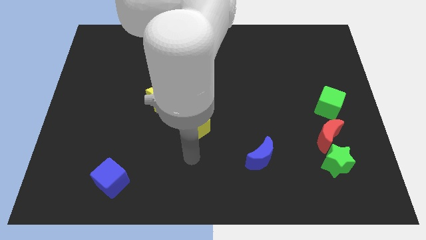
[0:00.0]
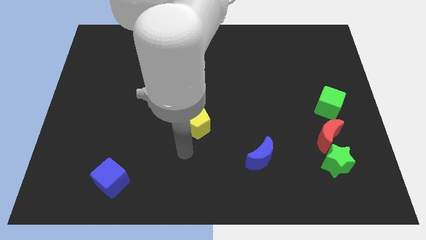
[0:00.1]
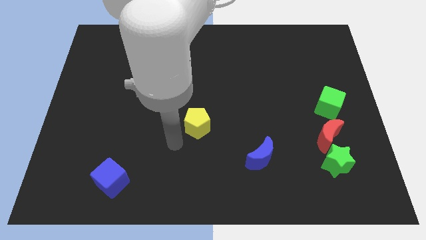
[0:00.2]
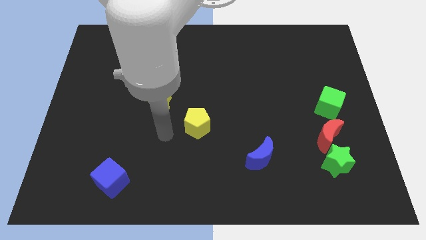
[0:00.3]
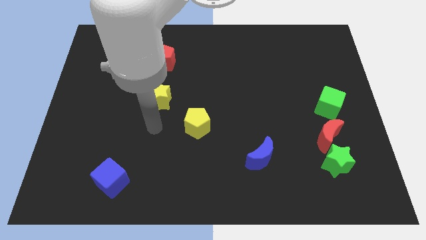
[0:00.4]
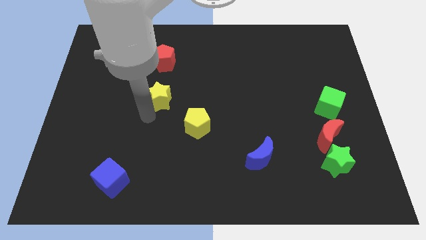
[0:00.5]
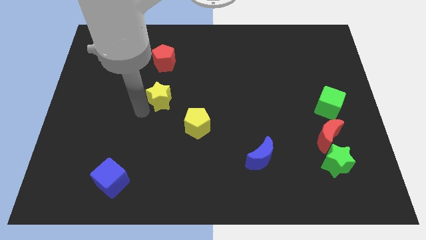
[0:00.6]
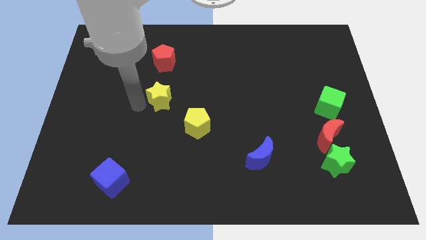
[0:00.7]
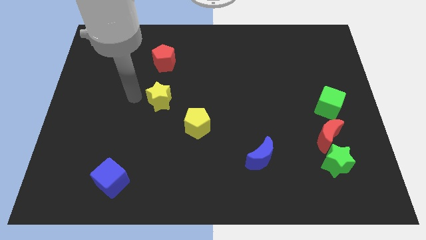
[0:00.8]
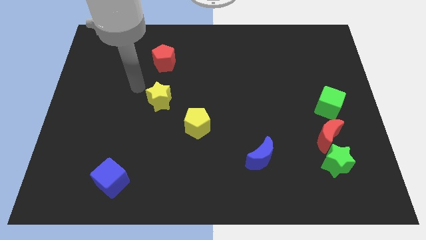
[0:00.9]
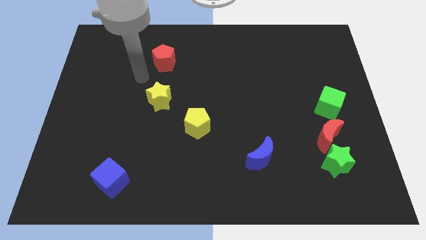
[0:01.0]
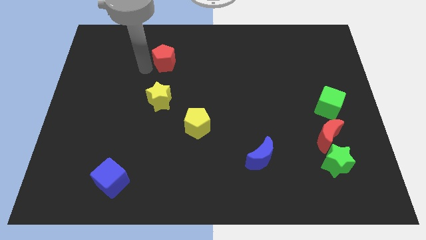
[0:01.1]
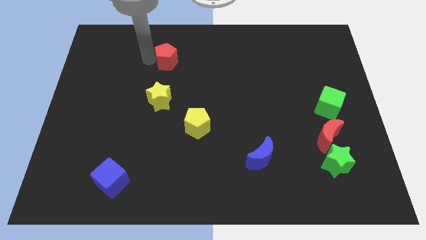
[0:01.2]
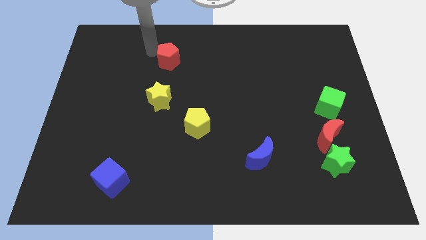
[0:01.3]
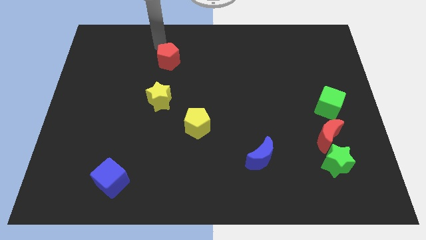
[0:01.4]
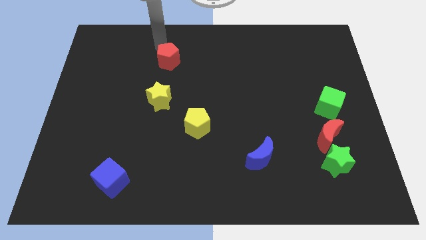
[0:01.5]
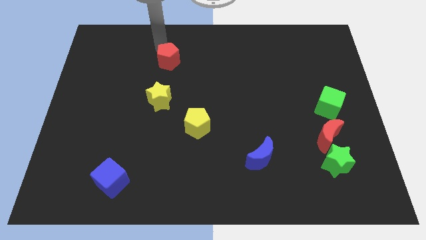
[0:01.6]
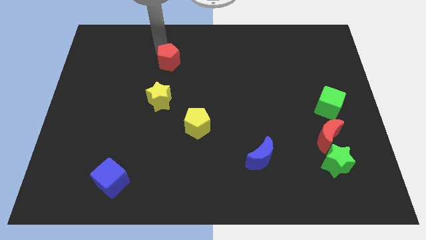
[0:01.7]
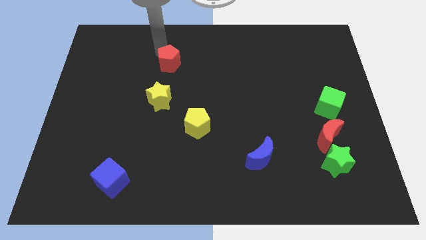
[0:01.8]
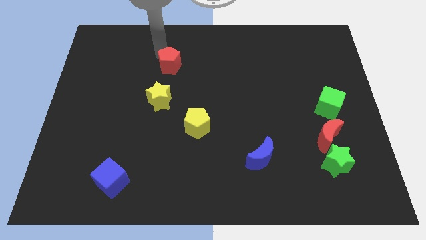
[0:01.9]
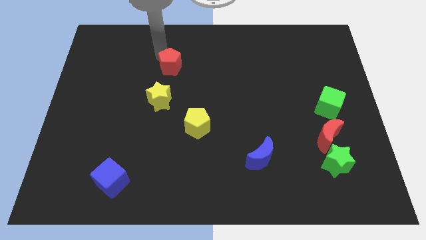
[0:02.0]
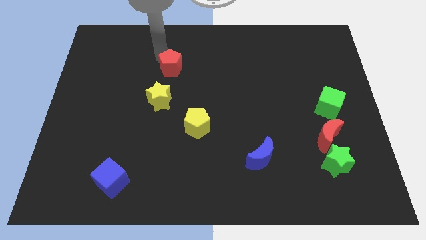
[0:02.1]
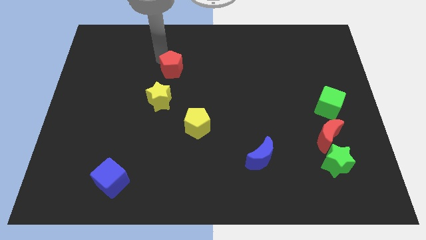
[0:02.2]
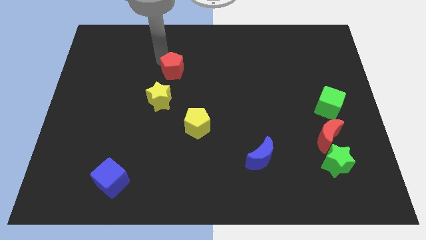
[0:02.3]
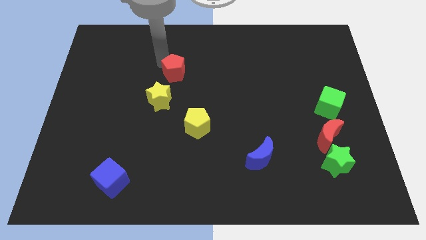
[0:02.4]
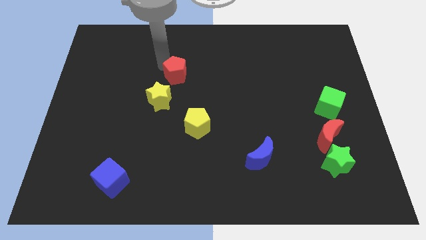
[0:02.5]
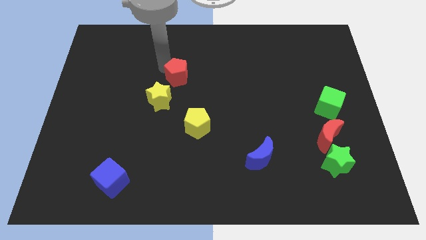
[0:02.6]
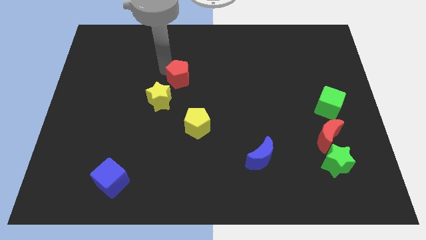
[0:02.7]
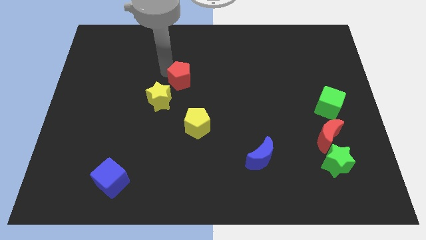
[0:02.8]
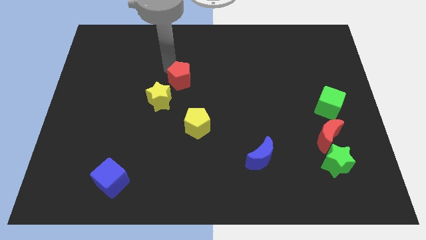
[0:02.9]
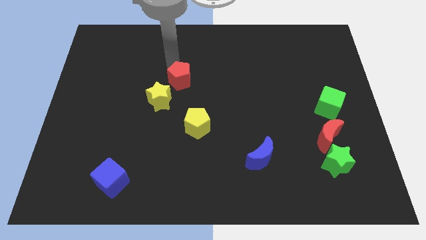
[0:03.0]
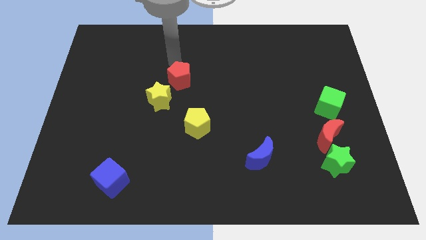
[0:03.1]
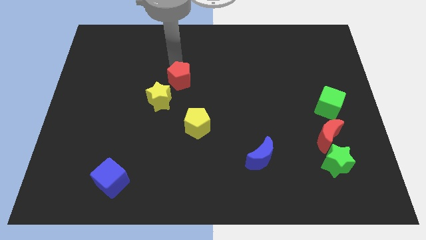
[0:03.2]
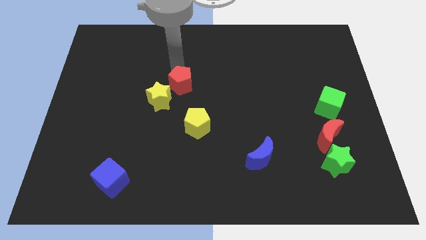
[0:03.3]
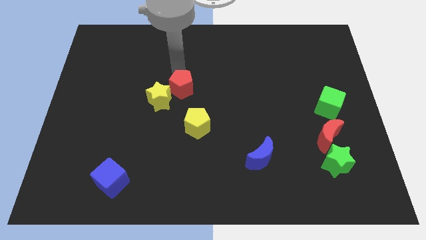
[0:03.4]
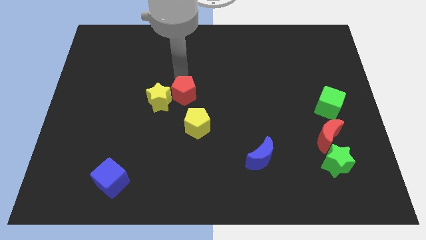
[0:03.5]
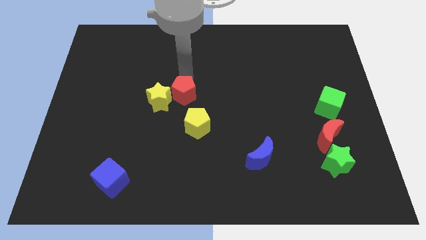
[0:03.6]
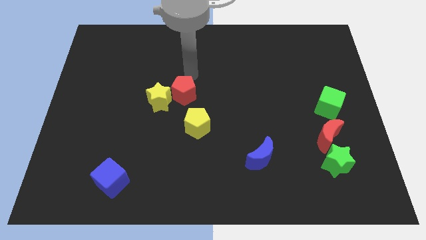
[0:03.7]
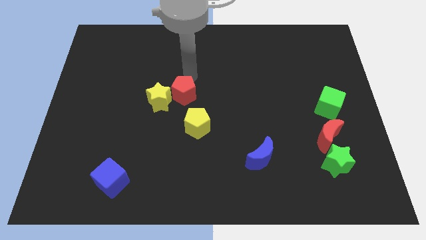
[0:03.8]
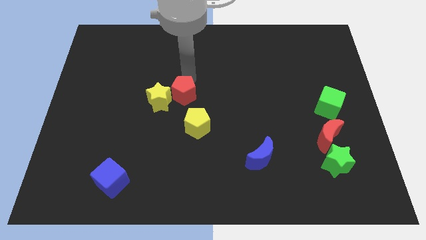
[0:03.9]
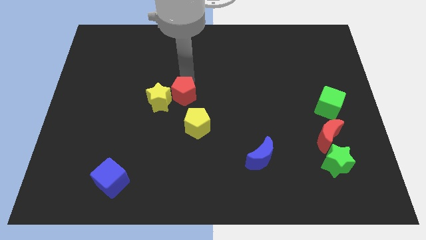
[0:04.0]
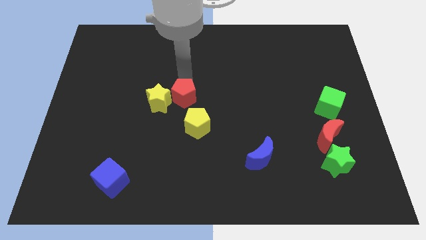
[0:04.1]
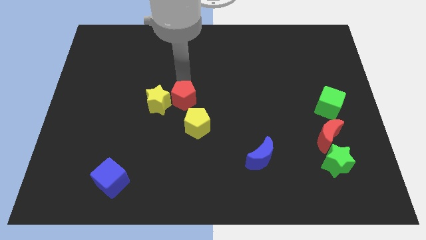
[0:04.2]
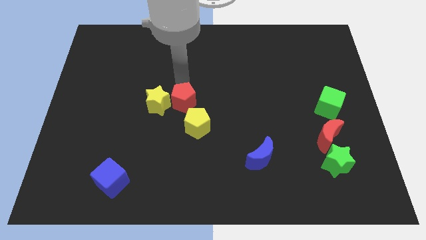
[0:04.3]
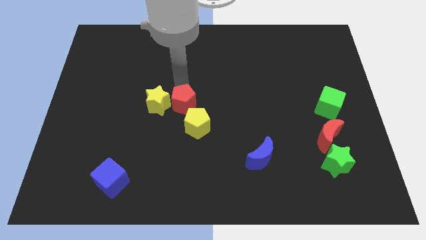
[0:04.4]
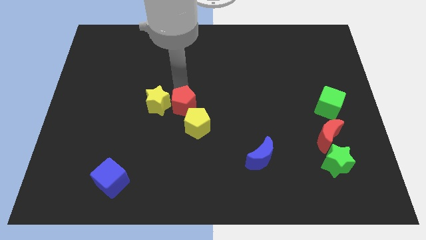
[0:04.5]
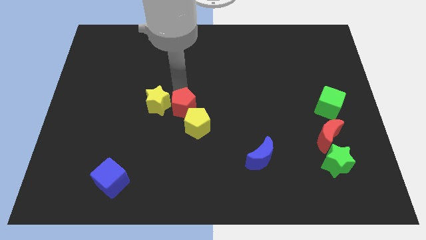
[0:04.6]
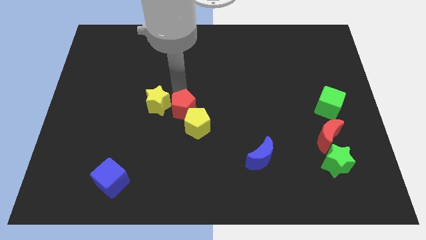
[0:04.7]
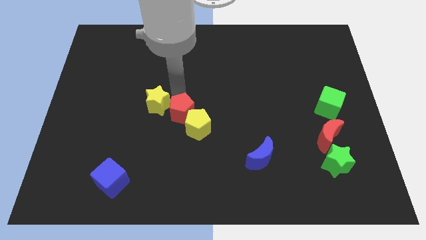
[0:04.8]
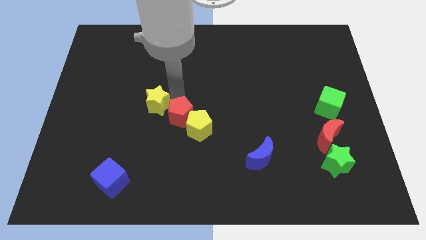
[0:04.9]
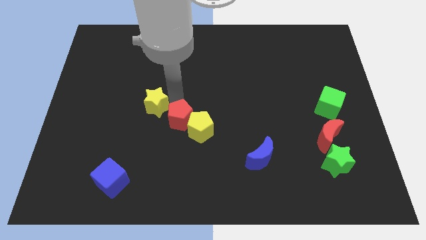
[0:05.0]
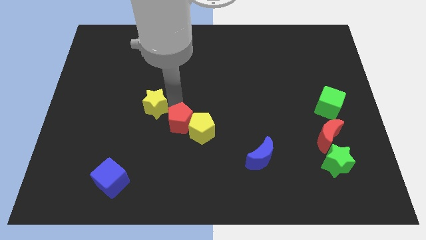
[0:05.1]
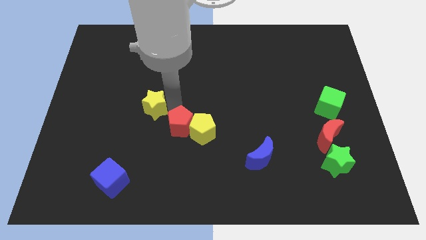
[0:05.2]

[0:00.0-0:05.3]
put the red pentagon to the bottom left of the yellow pentagon

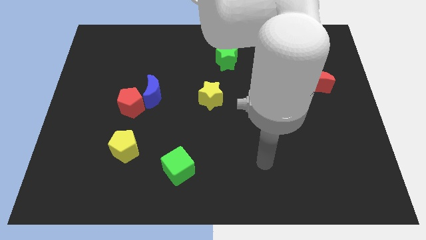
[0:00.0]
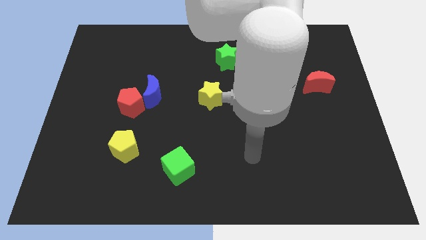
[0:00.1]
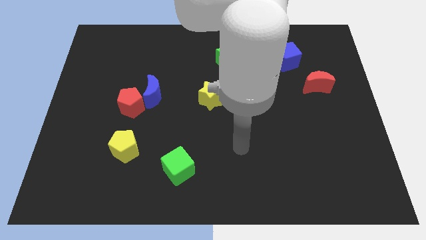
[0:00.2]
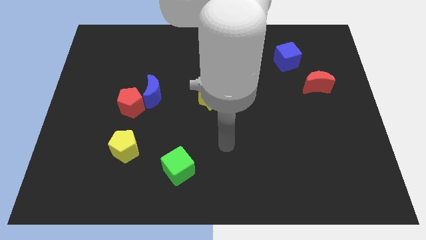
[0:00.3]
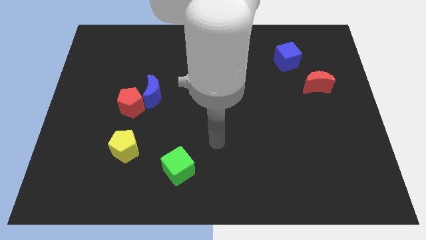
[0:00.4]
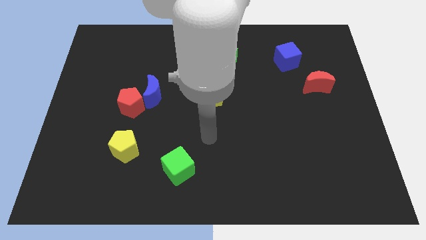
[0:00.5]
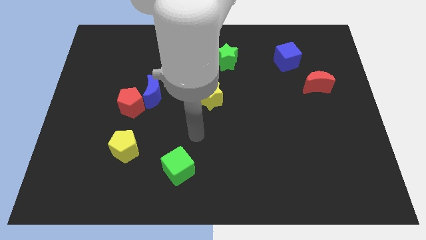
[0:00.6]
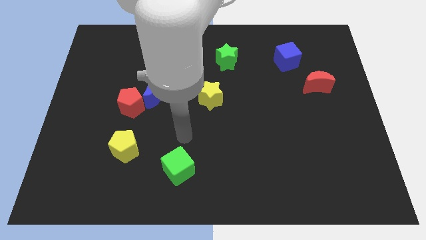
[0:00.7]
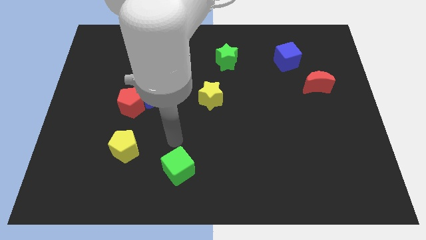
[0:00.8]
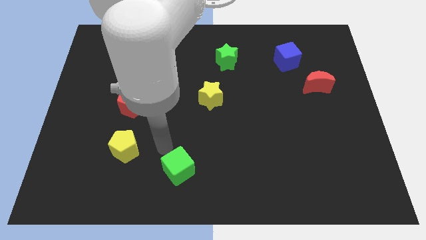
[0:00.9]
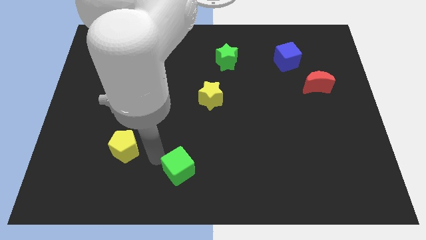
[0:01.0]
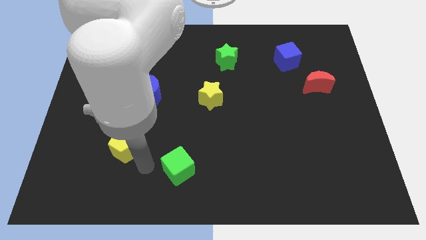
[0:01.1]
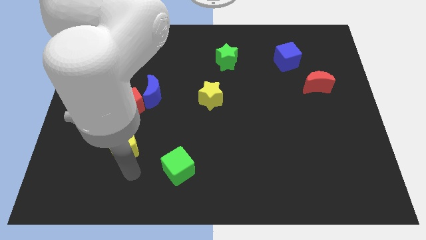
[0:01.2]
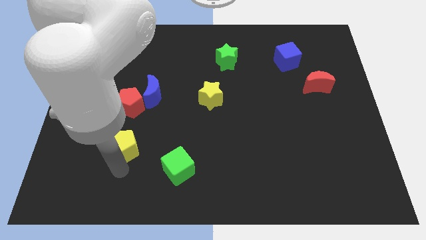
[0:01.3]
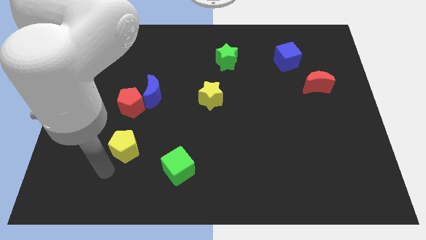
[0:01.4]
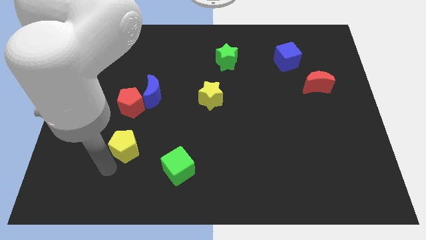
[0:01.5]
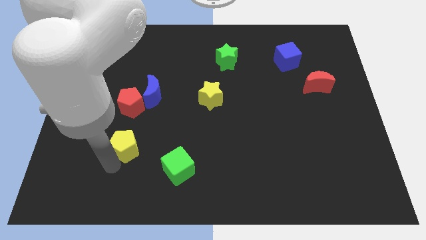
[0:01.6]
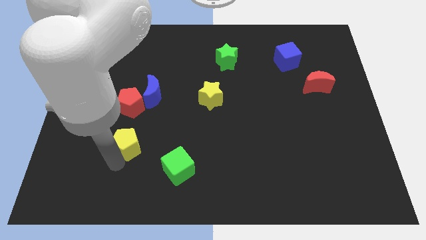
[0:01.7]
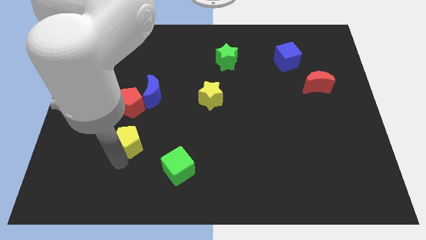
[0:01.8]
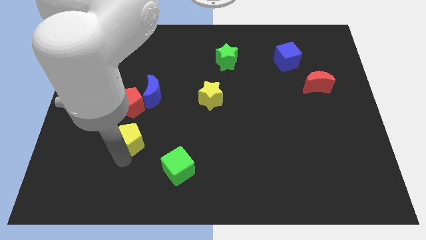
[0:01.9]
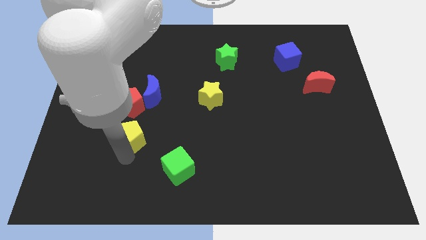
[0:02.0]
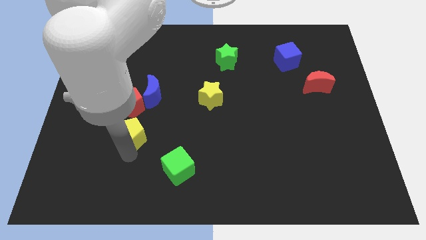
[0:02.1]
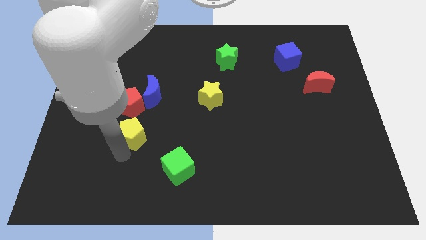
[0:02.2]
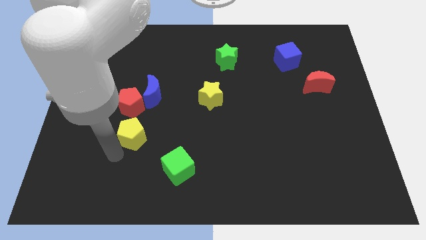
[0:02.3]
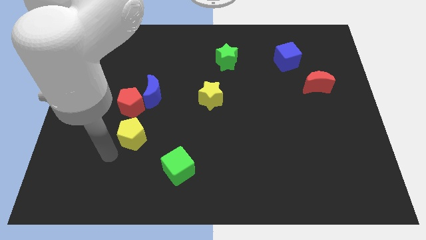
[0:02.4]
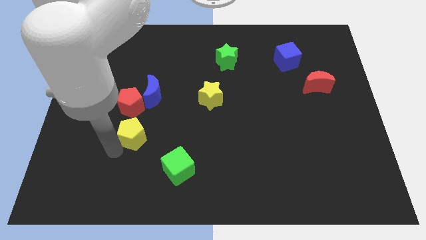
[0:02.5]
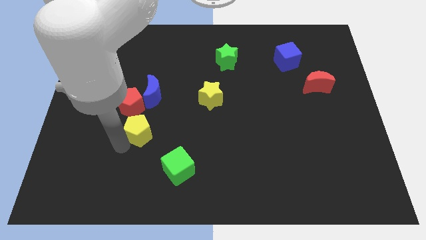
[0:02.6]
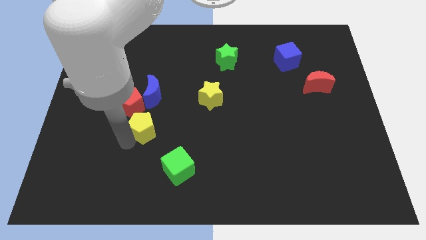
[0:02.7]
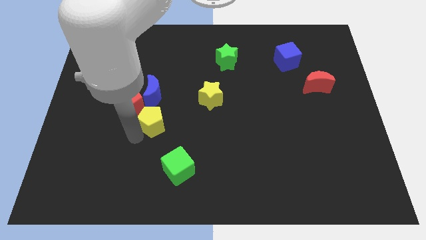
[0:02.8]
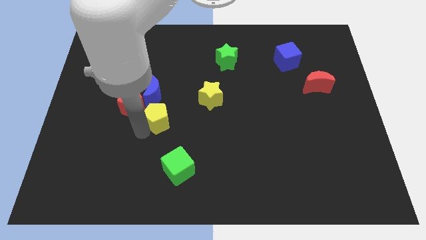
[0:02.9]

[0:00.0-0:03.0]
put the yellow pentagon to the bottom right of the blue moon
